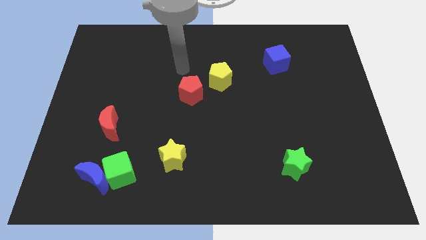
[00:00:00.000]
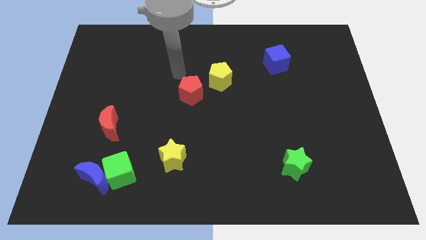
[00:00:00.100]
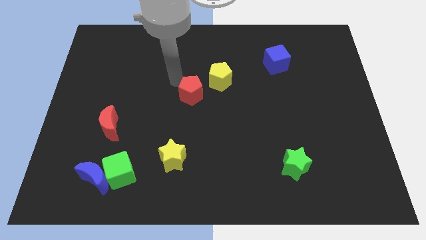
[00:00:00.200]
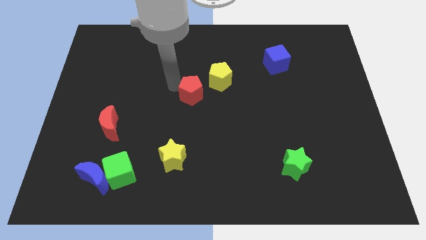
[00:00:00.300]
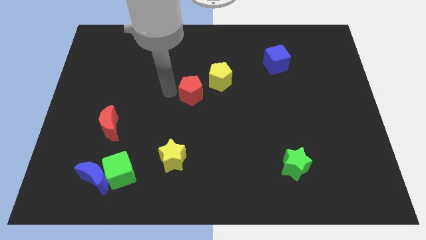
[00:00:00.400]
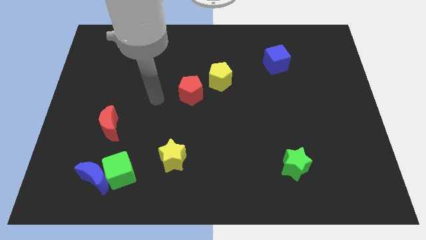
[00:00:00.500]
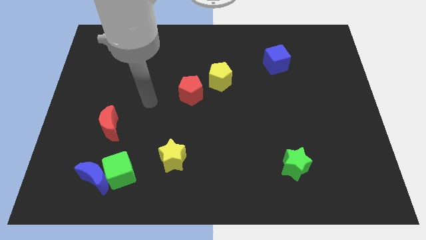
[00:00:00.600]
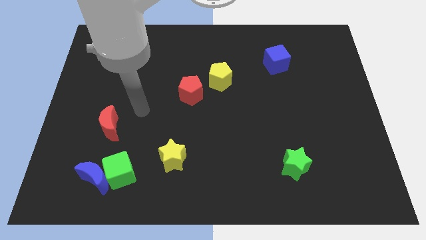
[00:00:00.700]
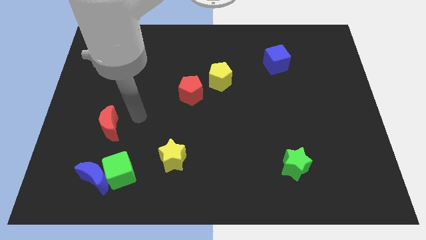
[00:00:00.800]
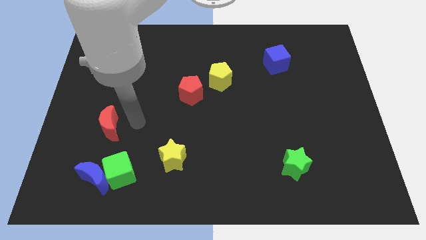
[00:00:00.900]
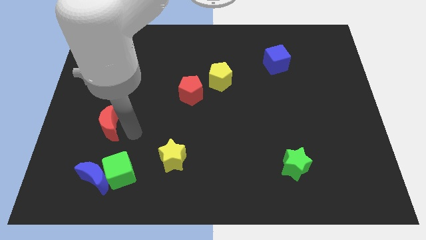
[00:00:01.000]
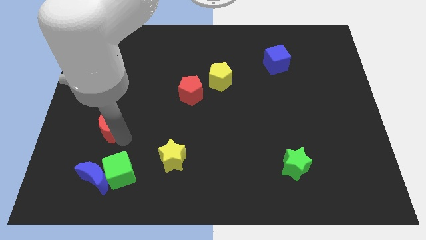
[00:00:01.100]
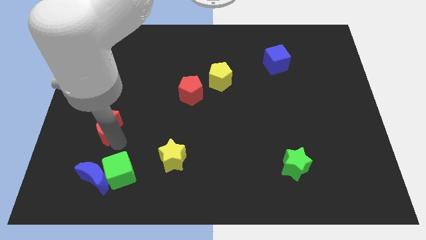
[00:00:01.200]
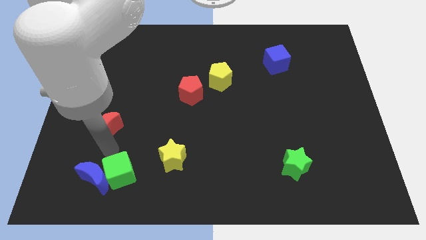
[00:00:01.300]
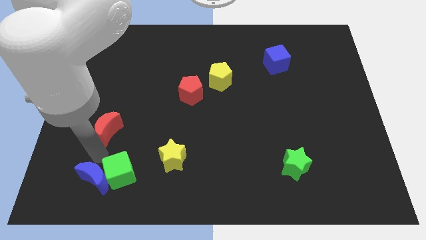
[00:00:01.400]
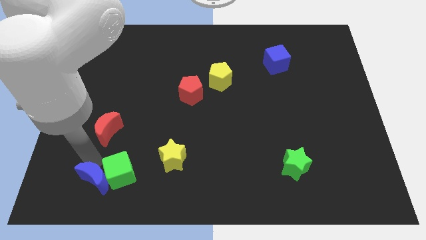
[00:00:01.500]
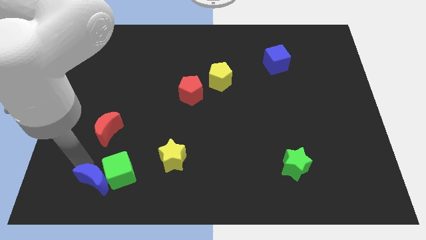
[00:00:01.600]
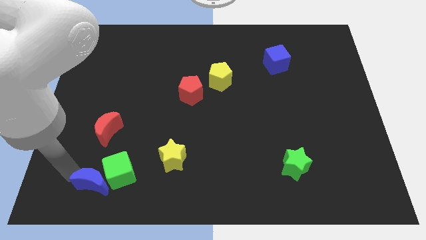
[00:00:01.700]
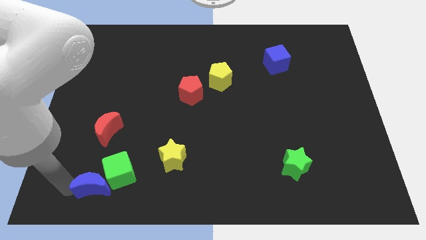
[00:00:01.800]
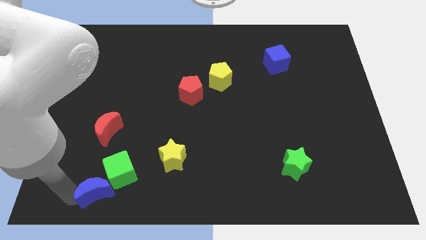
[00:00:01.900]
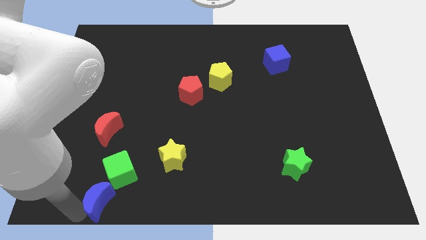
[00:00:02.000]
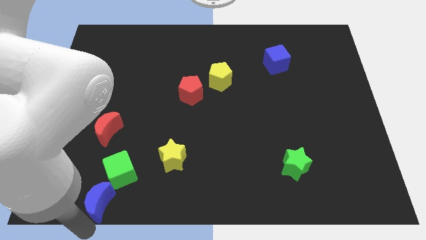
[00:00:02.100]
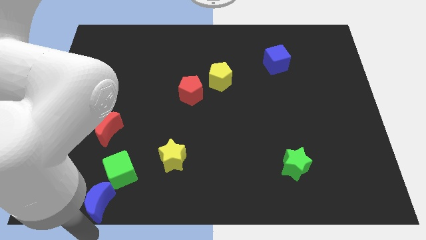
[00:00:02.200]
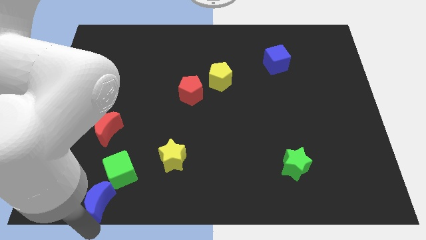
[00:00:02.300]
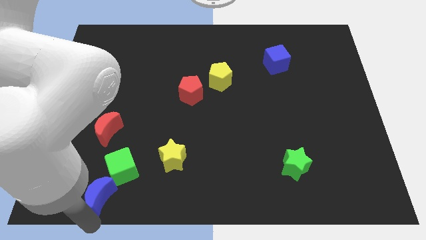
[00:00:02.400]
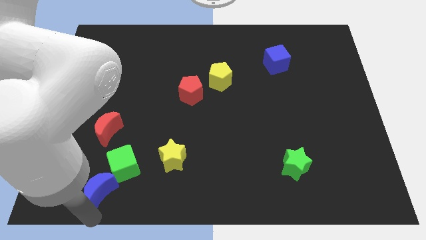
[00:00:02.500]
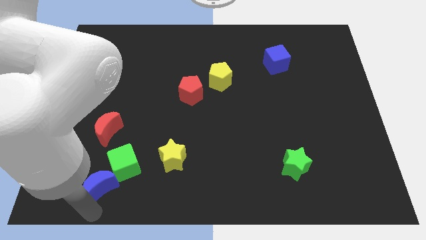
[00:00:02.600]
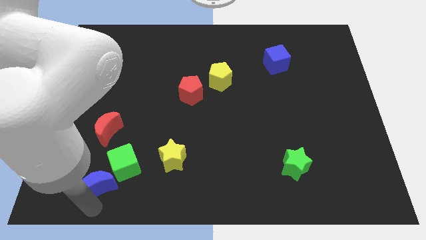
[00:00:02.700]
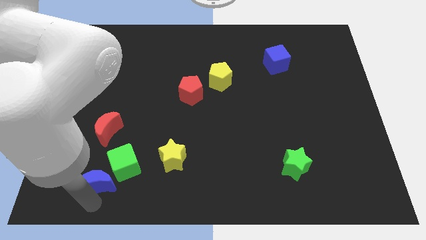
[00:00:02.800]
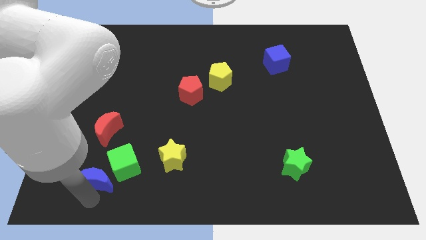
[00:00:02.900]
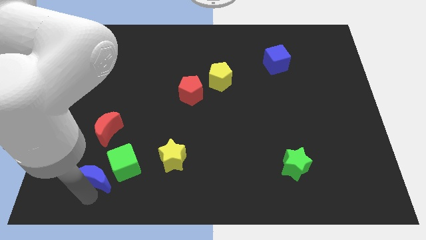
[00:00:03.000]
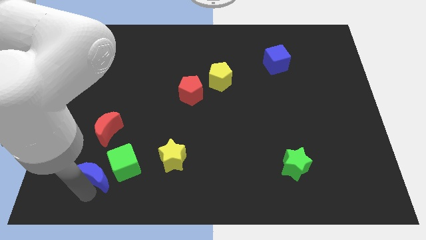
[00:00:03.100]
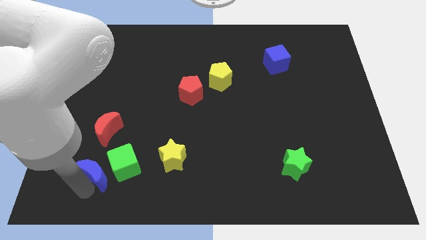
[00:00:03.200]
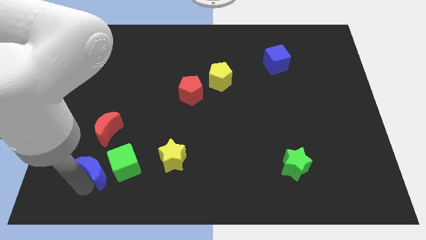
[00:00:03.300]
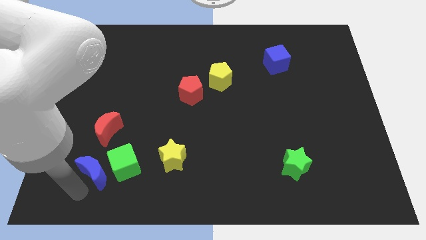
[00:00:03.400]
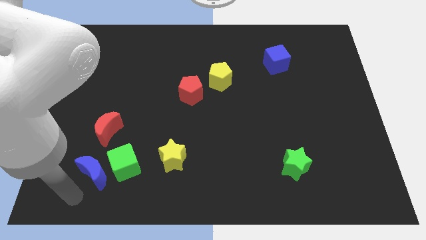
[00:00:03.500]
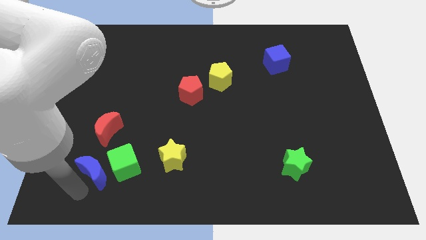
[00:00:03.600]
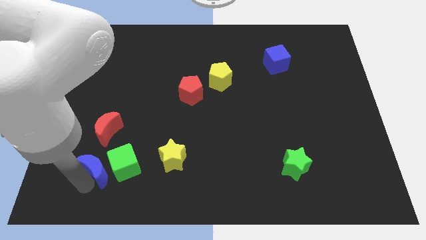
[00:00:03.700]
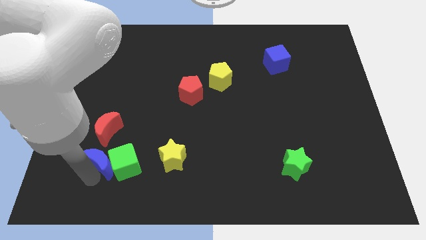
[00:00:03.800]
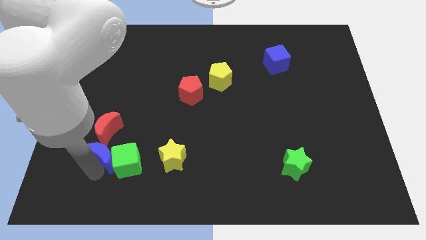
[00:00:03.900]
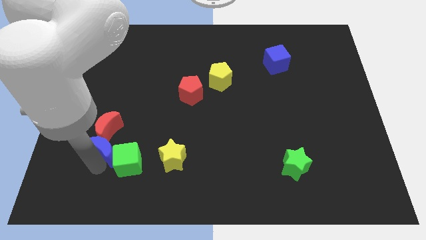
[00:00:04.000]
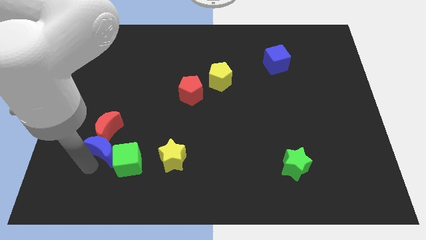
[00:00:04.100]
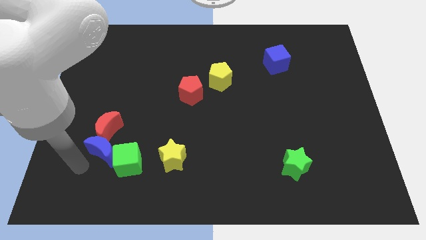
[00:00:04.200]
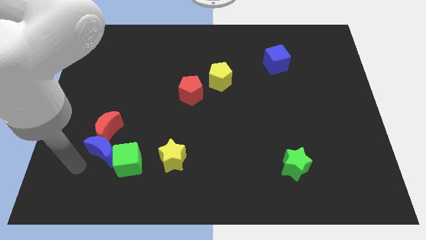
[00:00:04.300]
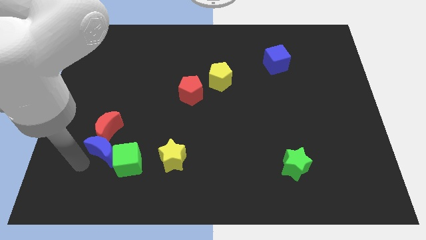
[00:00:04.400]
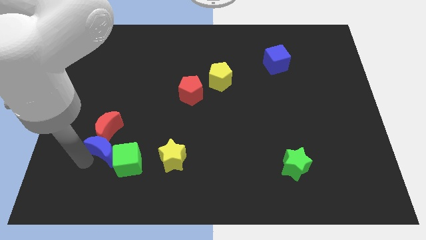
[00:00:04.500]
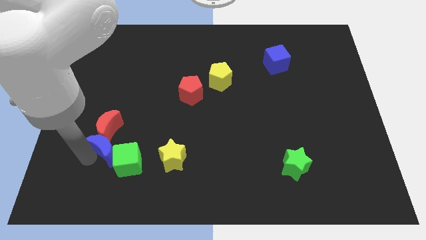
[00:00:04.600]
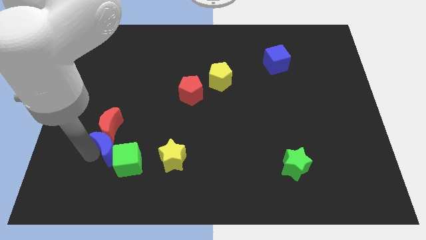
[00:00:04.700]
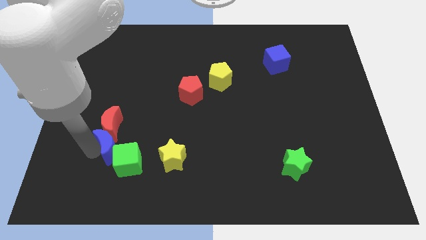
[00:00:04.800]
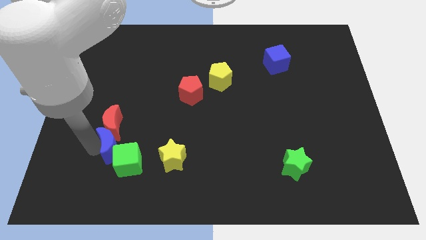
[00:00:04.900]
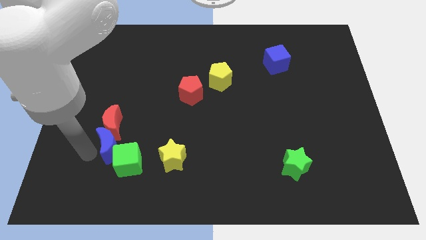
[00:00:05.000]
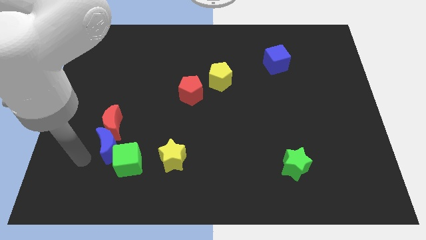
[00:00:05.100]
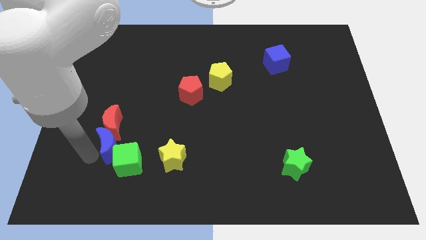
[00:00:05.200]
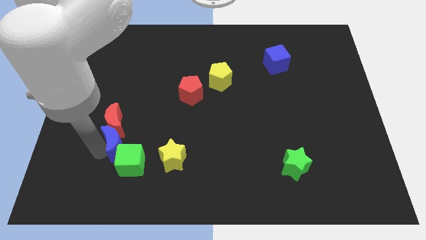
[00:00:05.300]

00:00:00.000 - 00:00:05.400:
push the blue moon slightly up and then to the right

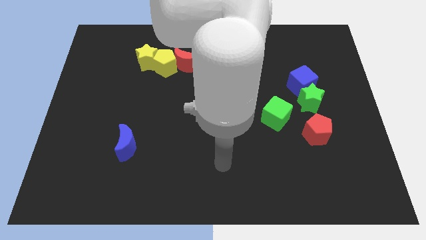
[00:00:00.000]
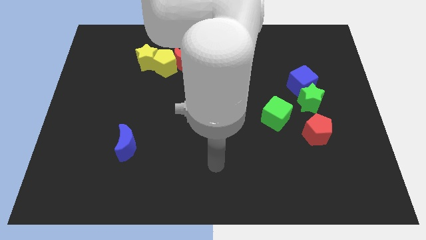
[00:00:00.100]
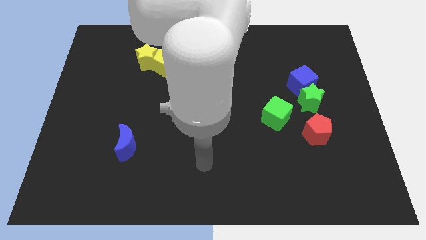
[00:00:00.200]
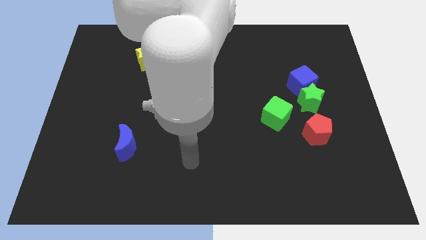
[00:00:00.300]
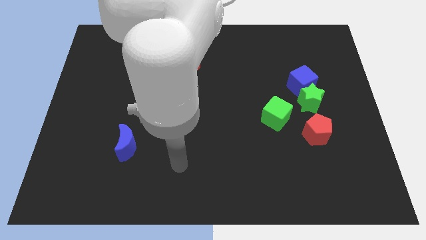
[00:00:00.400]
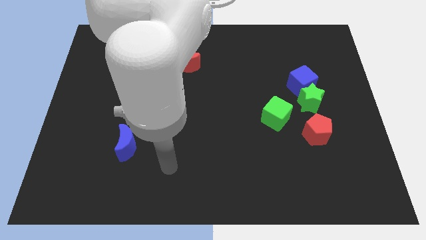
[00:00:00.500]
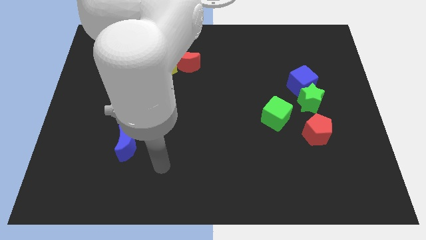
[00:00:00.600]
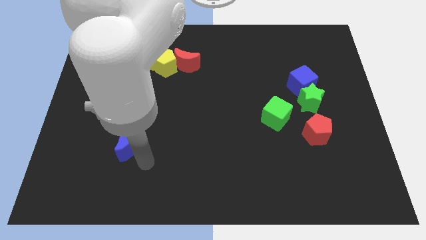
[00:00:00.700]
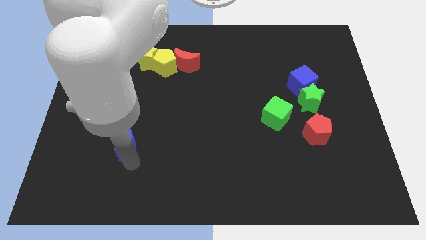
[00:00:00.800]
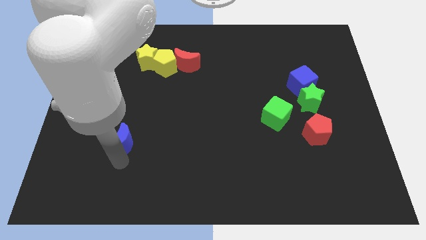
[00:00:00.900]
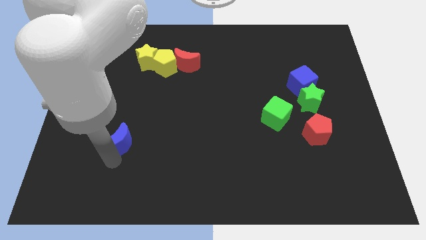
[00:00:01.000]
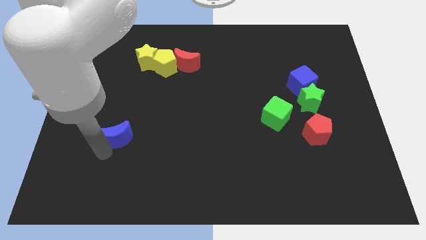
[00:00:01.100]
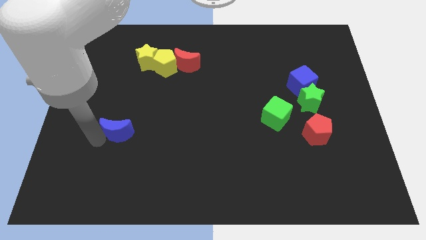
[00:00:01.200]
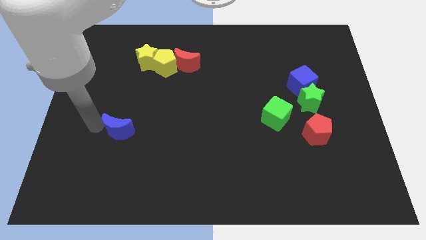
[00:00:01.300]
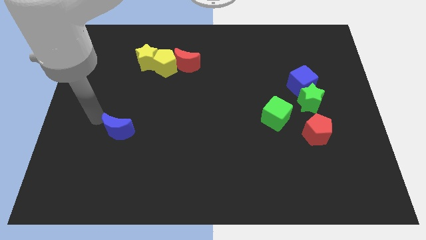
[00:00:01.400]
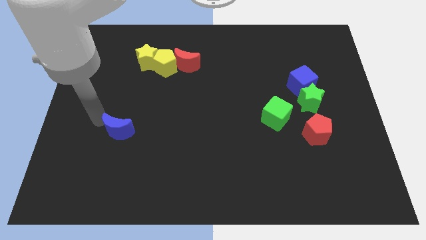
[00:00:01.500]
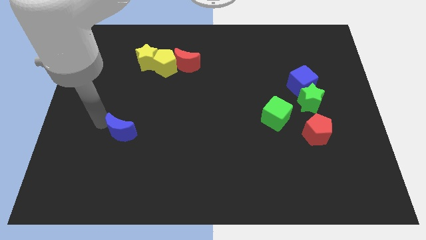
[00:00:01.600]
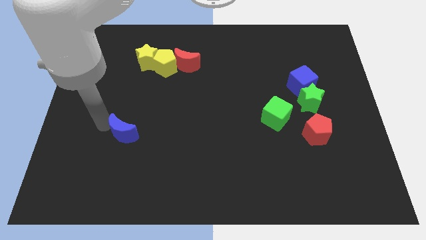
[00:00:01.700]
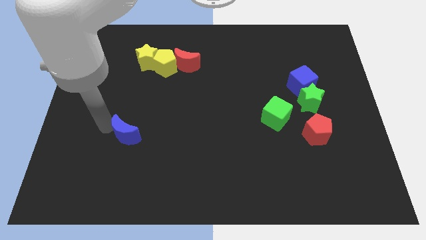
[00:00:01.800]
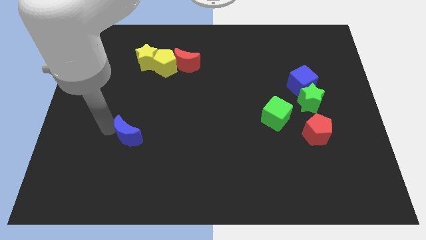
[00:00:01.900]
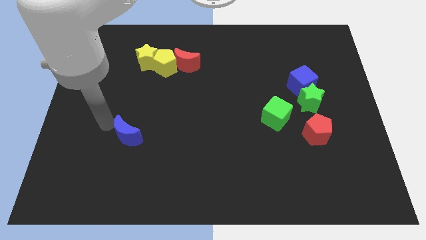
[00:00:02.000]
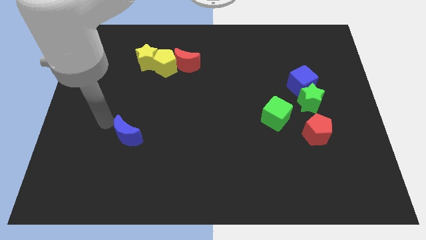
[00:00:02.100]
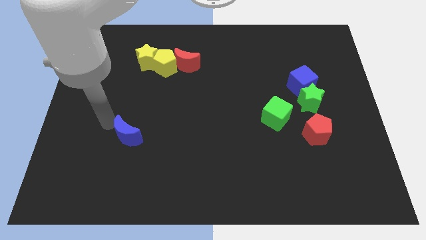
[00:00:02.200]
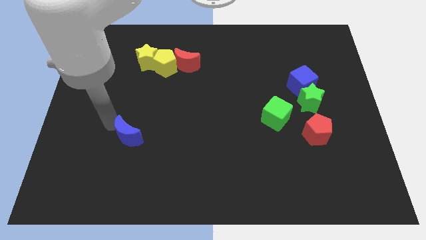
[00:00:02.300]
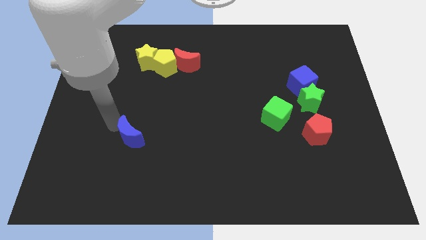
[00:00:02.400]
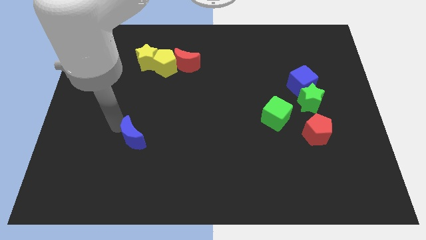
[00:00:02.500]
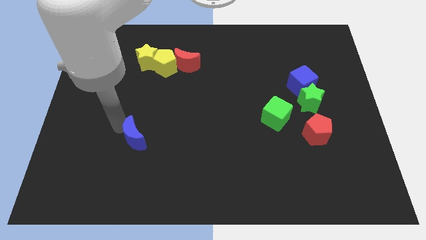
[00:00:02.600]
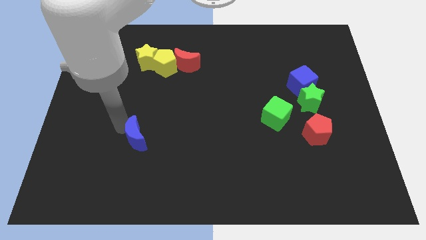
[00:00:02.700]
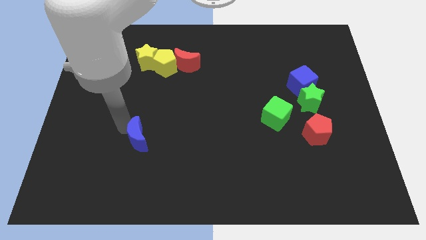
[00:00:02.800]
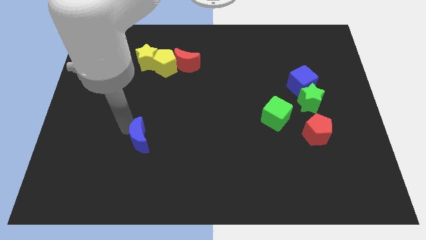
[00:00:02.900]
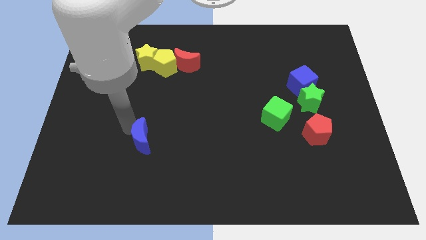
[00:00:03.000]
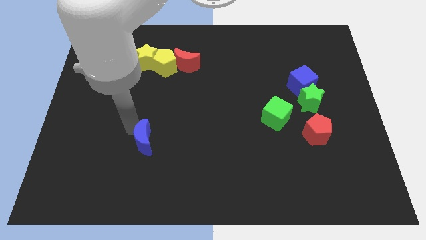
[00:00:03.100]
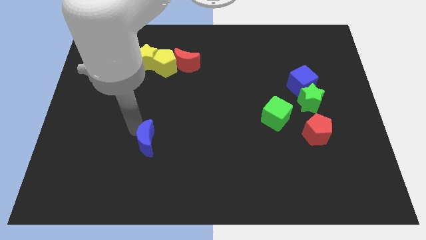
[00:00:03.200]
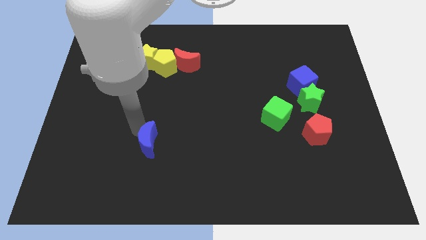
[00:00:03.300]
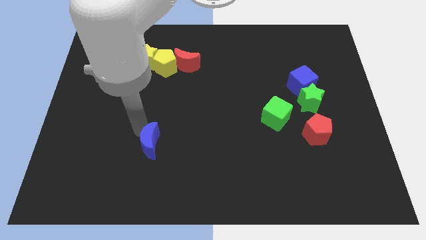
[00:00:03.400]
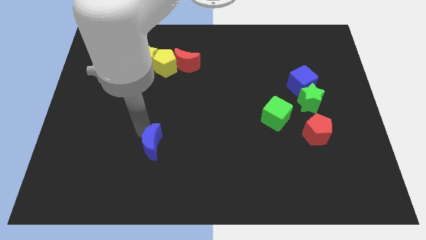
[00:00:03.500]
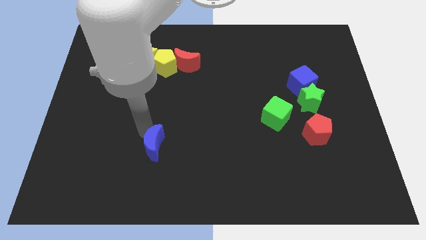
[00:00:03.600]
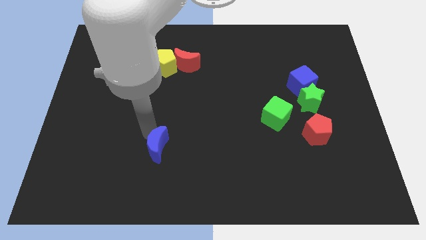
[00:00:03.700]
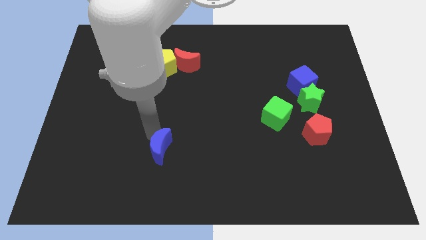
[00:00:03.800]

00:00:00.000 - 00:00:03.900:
slide the blue moon somewhat to the right
